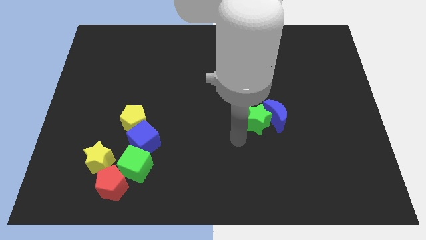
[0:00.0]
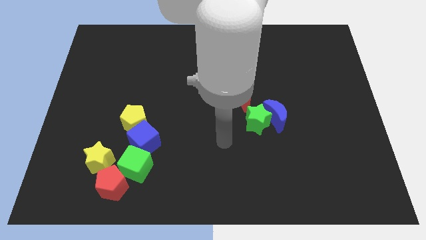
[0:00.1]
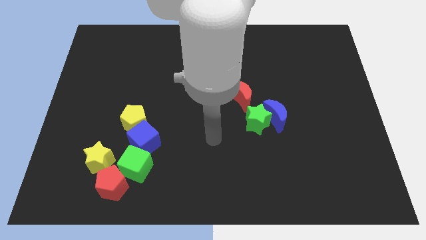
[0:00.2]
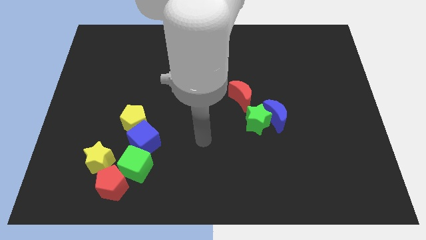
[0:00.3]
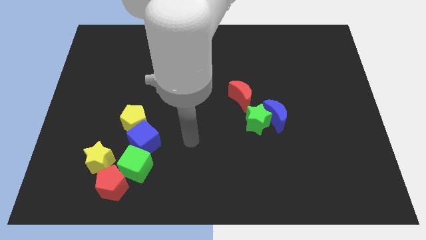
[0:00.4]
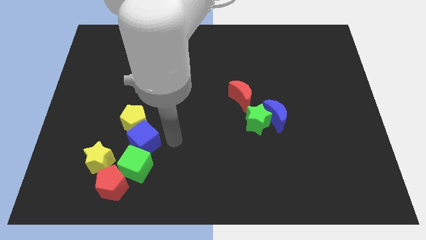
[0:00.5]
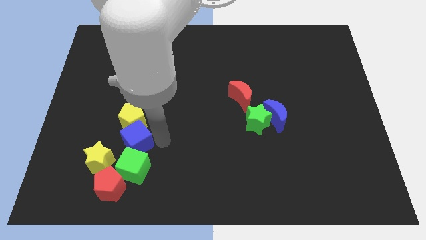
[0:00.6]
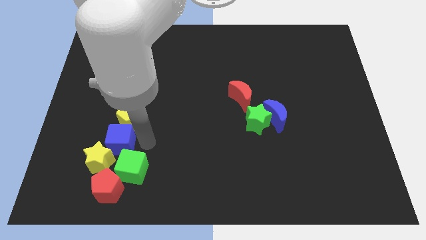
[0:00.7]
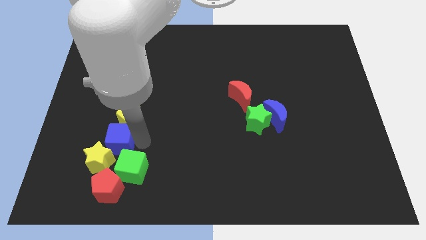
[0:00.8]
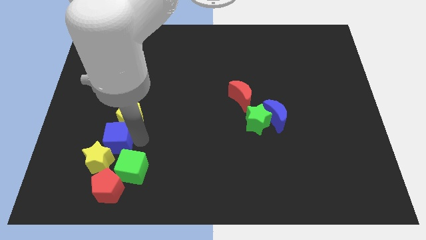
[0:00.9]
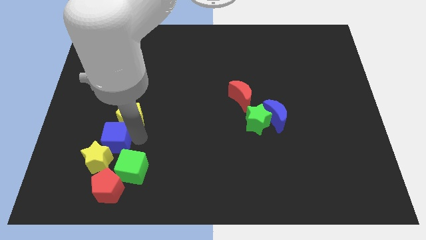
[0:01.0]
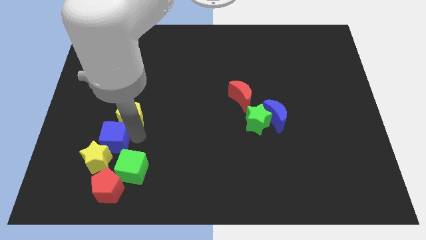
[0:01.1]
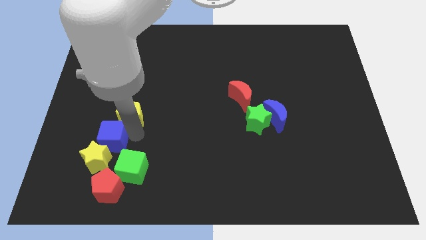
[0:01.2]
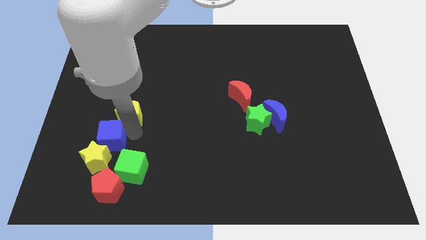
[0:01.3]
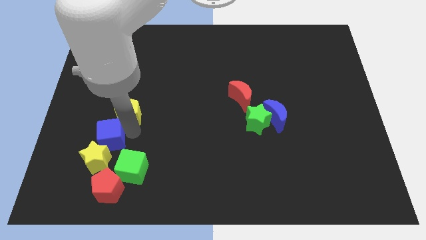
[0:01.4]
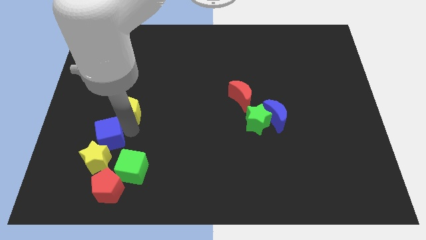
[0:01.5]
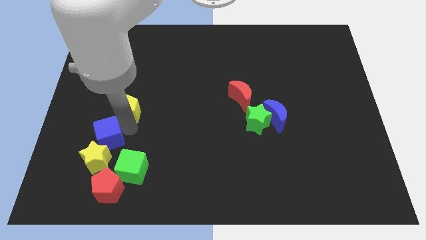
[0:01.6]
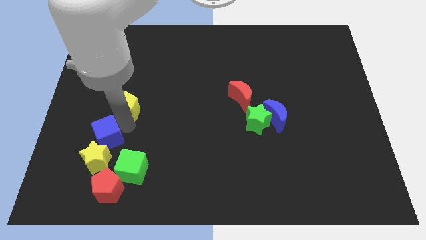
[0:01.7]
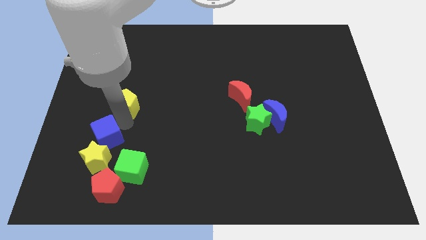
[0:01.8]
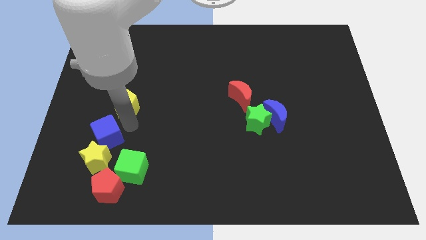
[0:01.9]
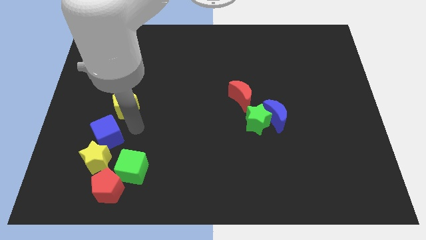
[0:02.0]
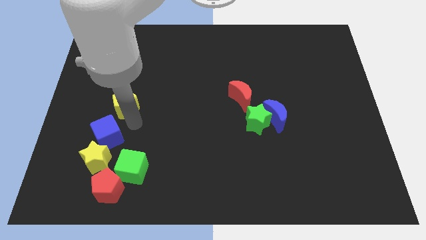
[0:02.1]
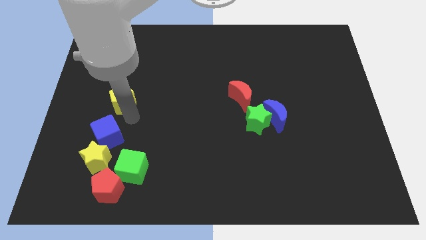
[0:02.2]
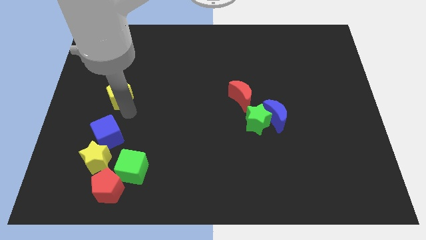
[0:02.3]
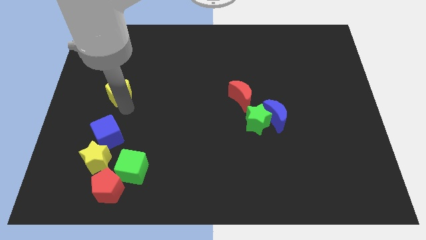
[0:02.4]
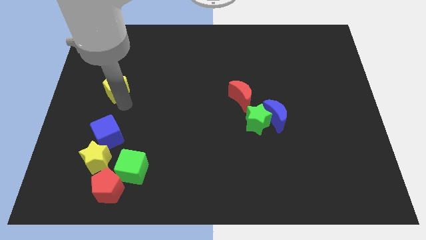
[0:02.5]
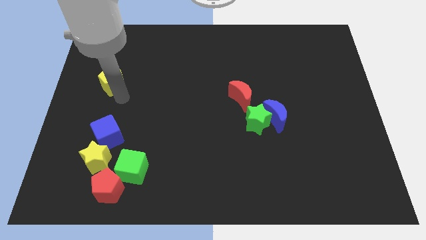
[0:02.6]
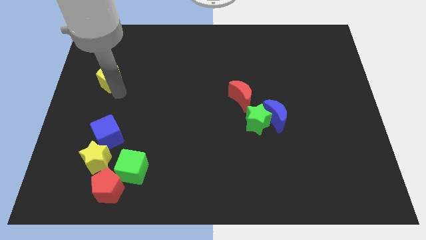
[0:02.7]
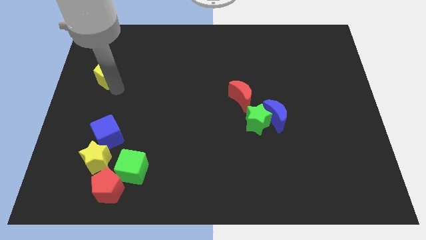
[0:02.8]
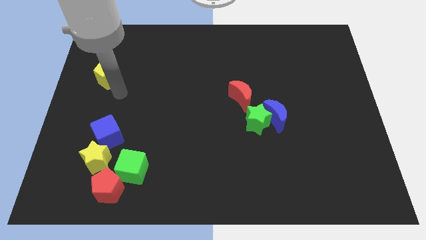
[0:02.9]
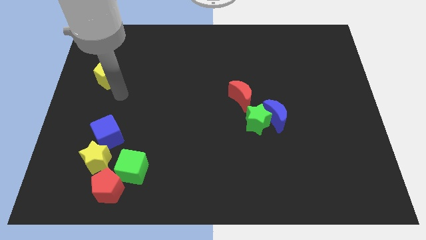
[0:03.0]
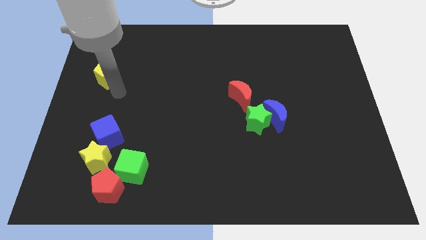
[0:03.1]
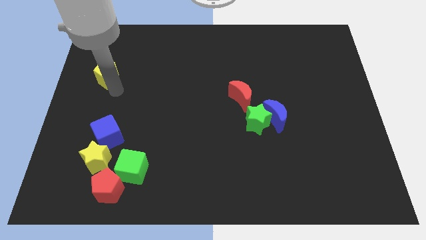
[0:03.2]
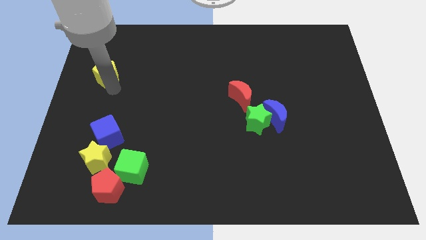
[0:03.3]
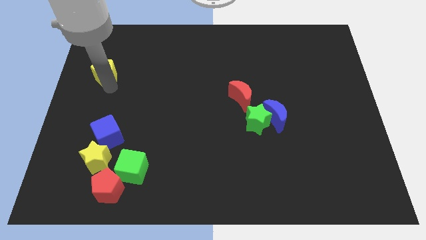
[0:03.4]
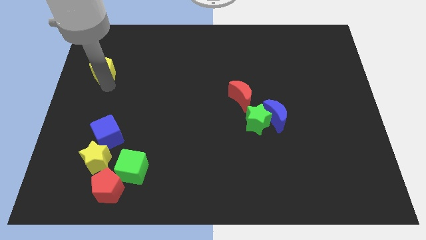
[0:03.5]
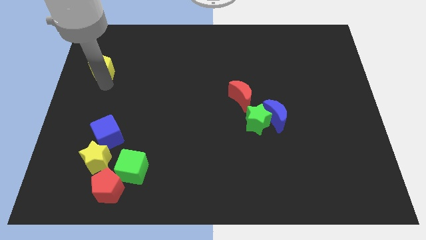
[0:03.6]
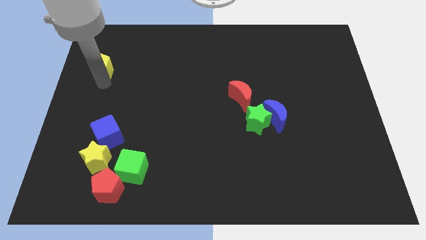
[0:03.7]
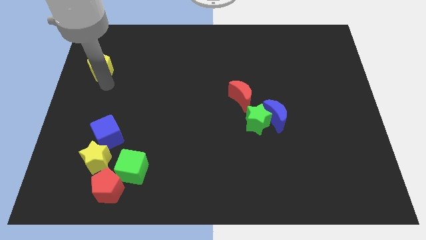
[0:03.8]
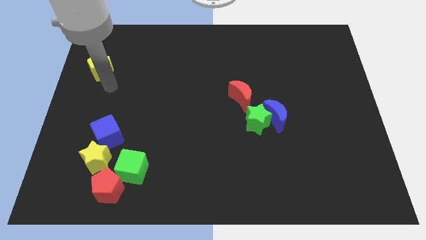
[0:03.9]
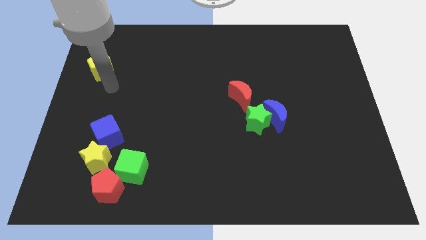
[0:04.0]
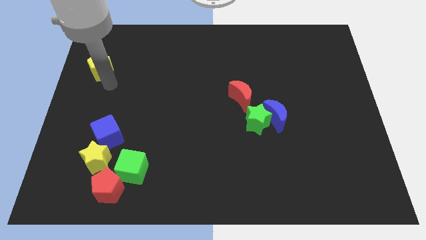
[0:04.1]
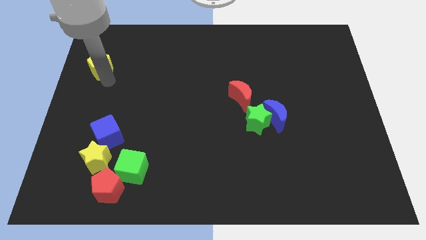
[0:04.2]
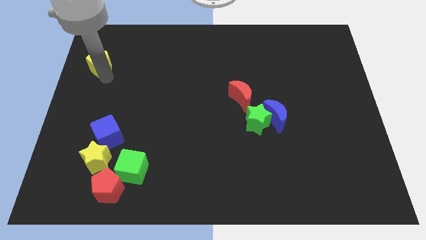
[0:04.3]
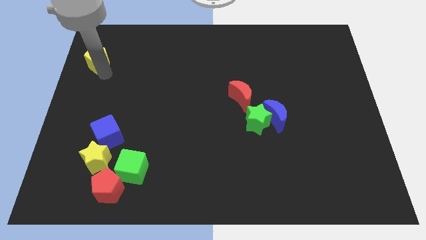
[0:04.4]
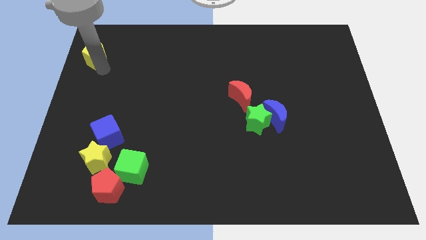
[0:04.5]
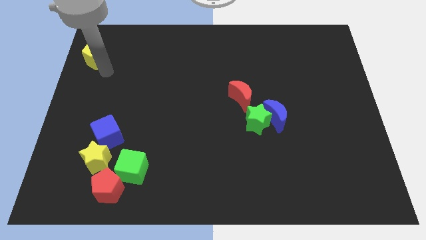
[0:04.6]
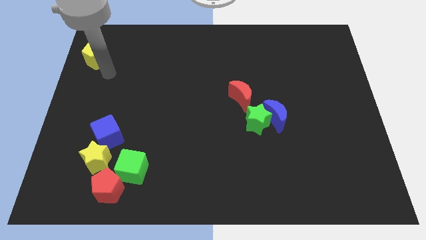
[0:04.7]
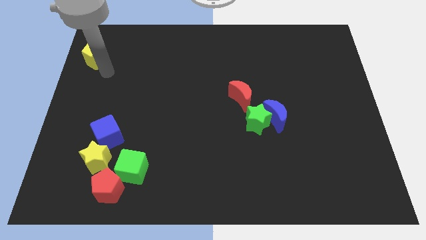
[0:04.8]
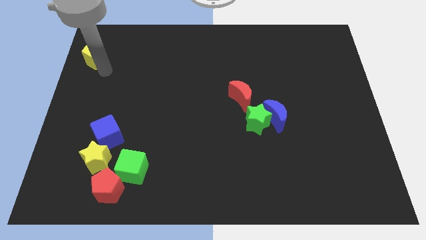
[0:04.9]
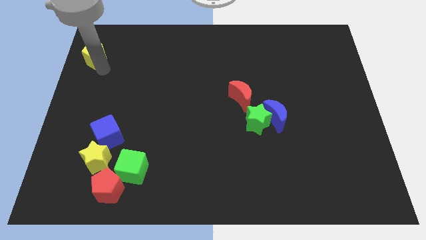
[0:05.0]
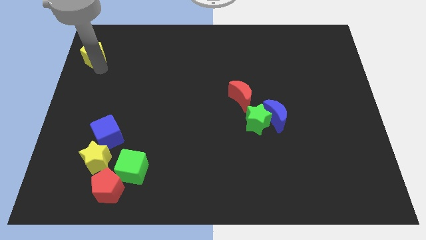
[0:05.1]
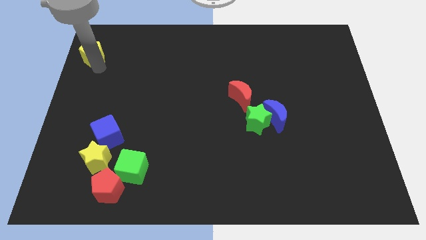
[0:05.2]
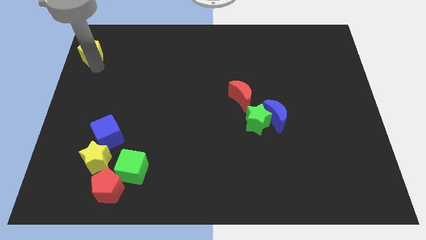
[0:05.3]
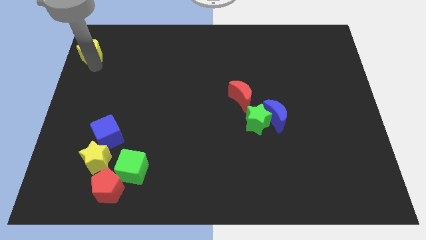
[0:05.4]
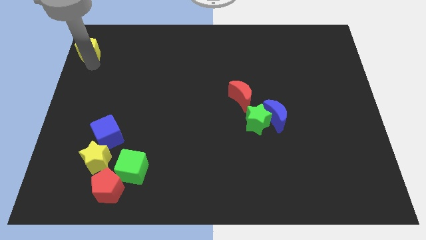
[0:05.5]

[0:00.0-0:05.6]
move the yellow pentagon to the top left
